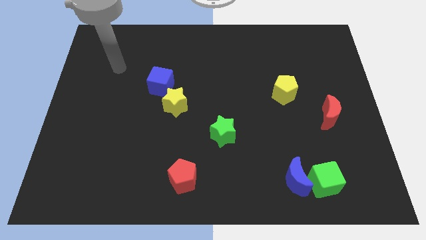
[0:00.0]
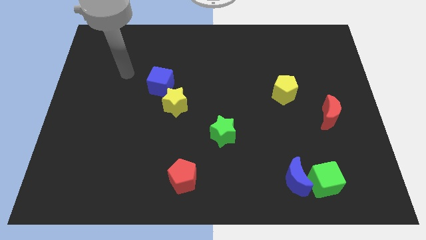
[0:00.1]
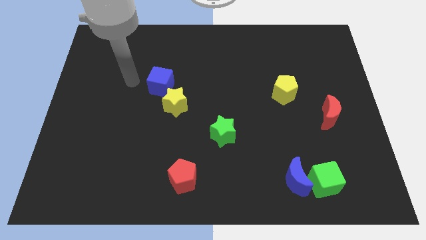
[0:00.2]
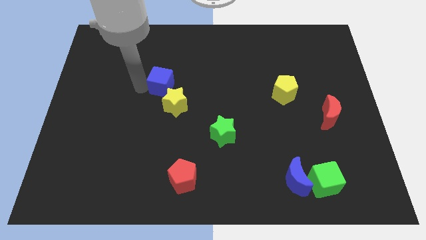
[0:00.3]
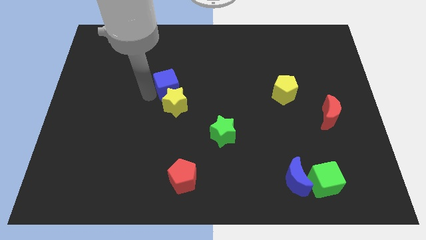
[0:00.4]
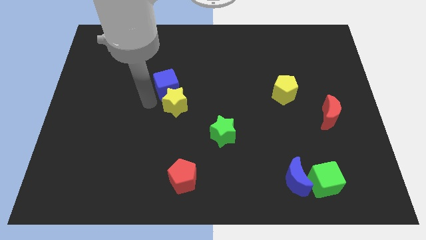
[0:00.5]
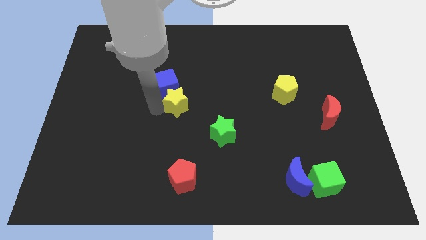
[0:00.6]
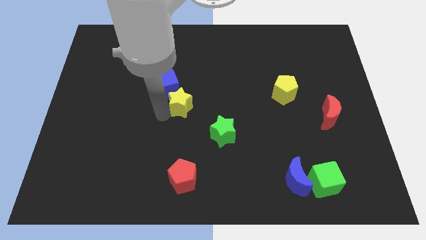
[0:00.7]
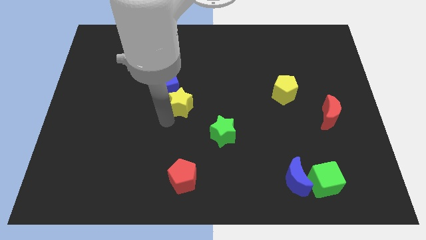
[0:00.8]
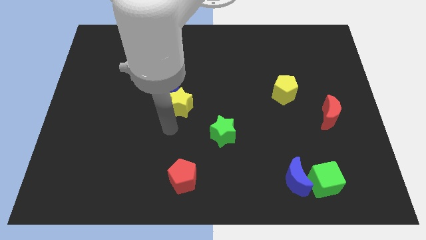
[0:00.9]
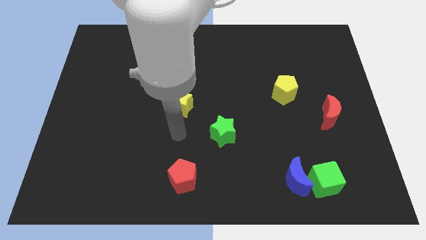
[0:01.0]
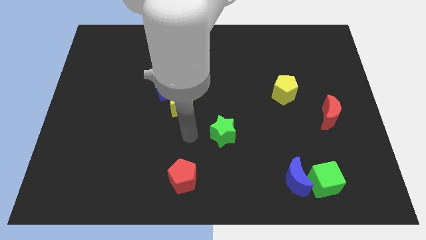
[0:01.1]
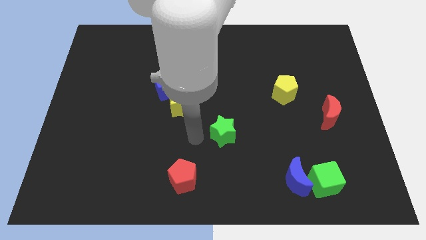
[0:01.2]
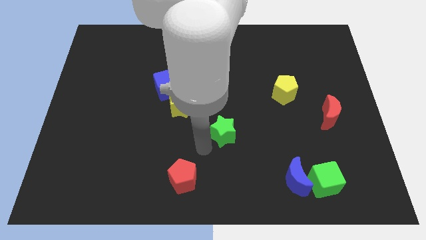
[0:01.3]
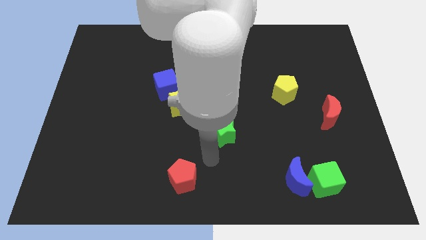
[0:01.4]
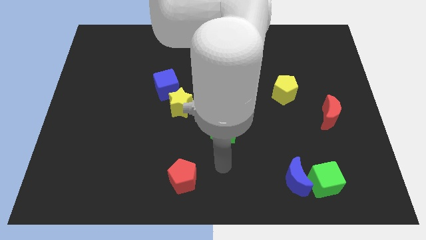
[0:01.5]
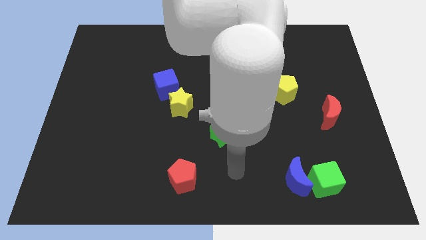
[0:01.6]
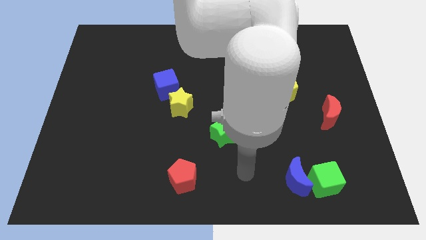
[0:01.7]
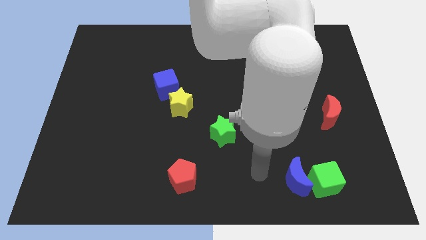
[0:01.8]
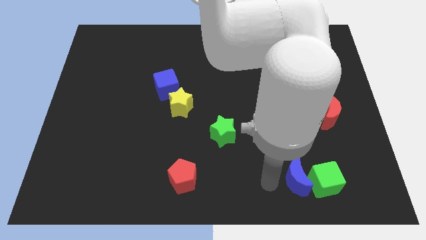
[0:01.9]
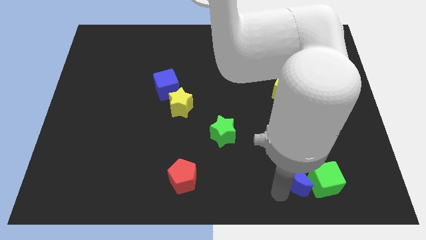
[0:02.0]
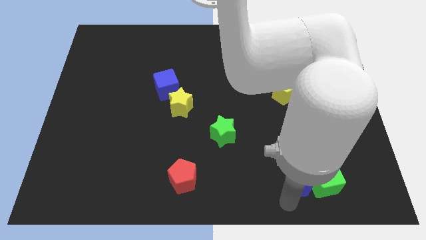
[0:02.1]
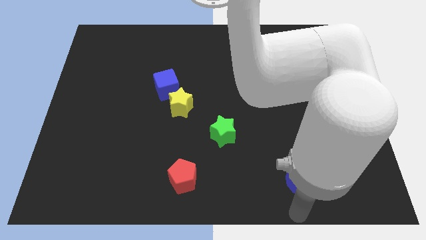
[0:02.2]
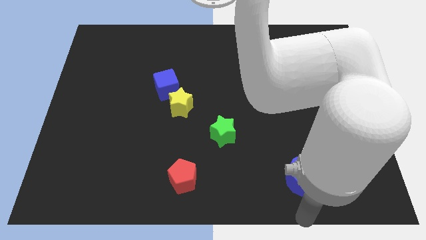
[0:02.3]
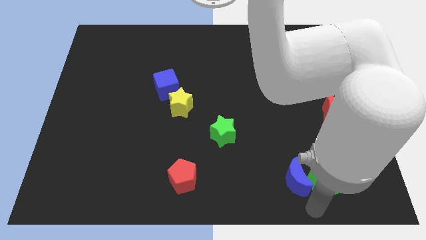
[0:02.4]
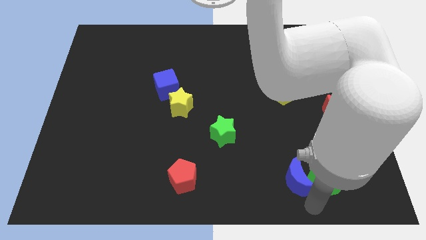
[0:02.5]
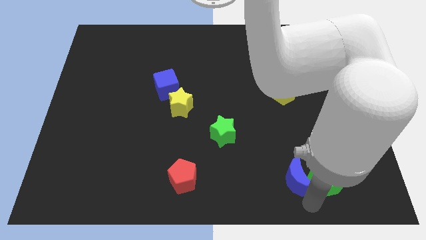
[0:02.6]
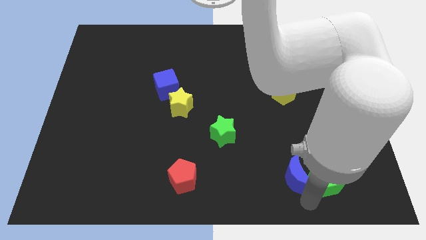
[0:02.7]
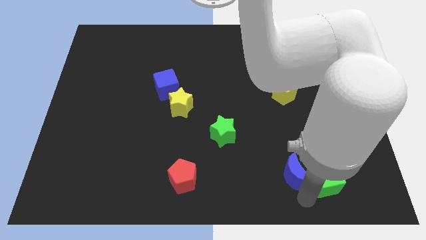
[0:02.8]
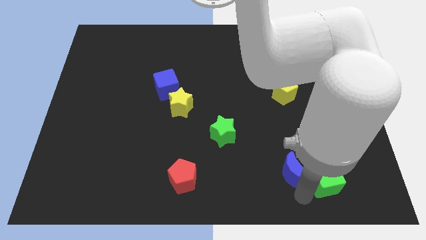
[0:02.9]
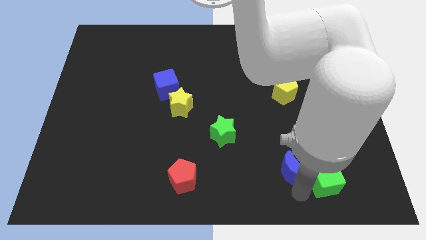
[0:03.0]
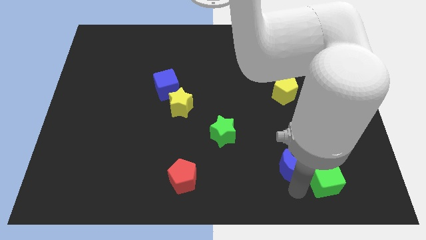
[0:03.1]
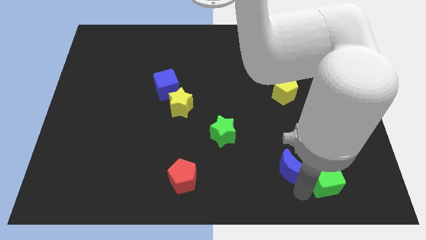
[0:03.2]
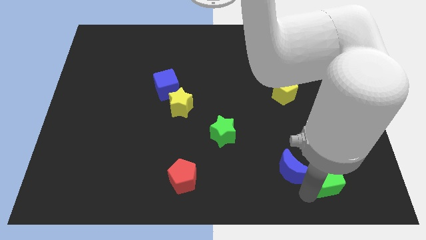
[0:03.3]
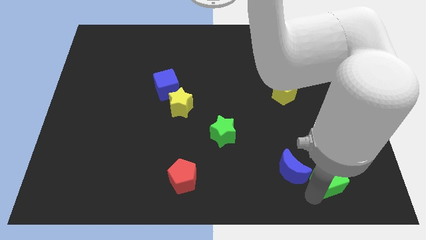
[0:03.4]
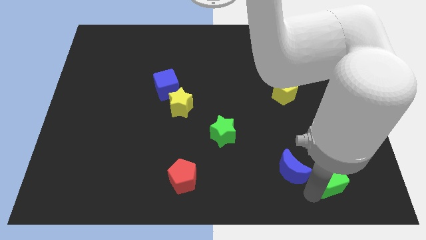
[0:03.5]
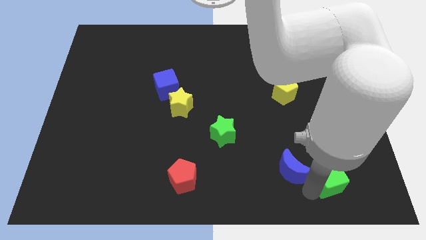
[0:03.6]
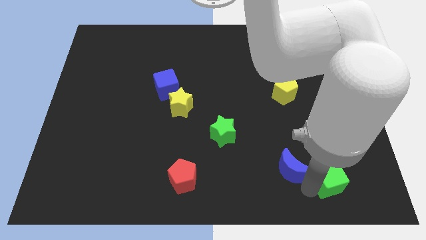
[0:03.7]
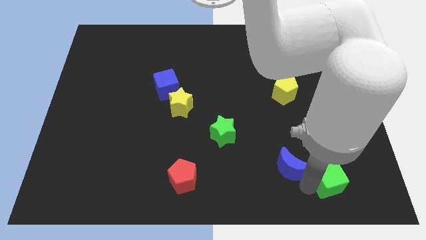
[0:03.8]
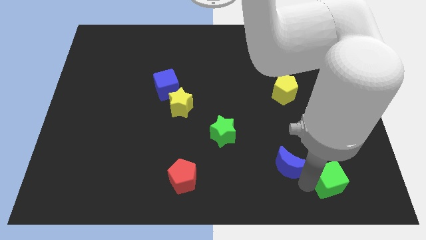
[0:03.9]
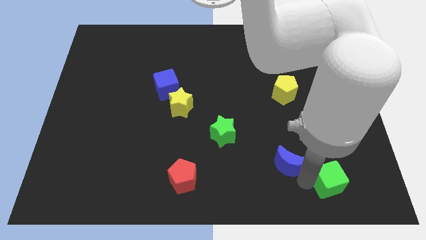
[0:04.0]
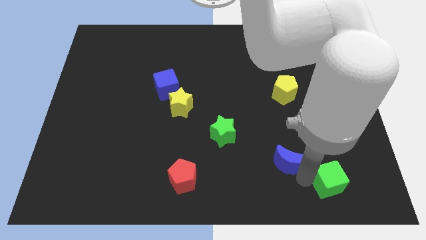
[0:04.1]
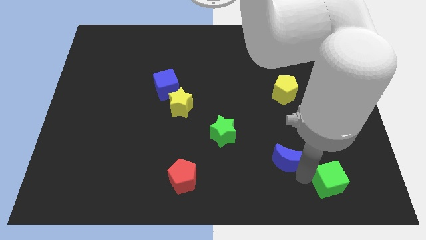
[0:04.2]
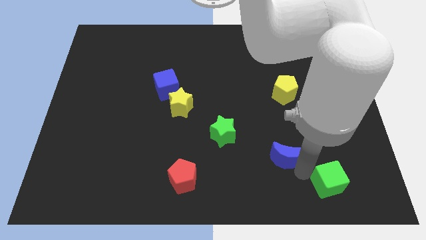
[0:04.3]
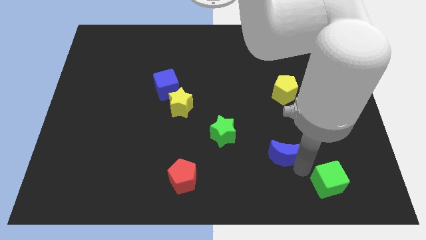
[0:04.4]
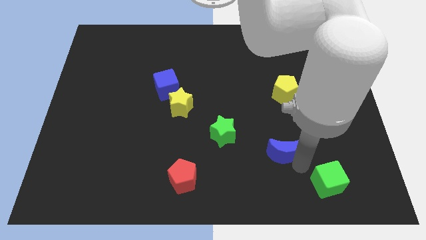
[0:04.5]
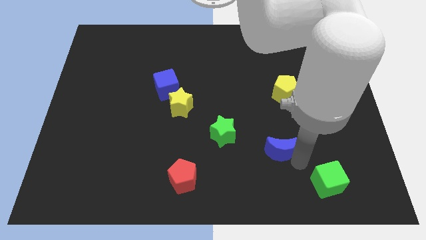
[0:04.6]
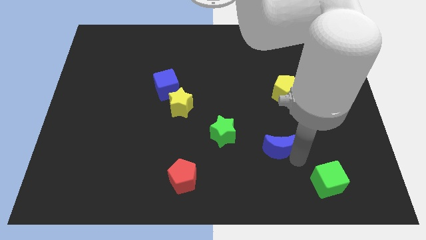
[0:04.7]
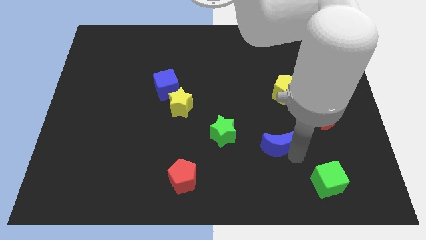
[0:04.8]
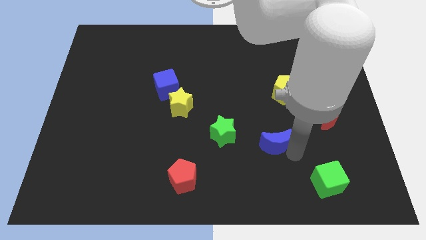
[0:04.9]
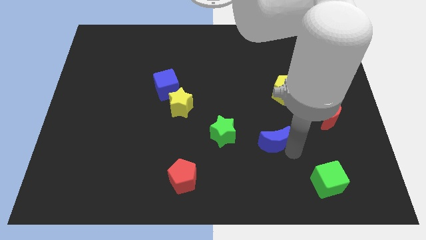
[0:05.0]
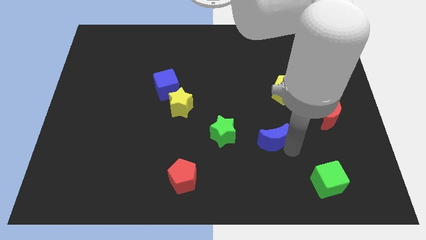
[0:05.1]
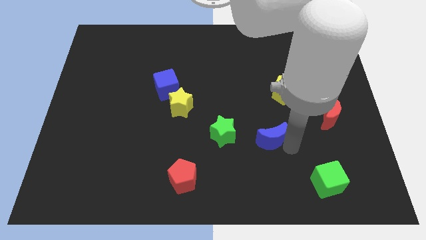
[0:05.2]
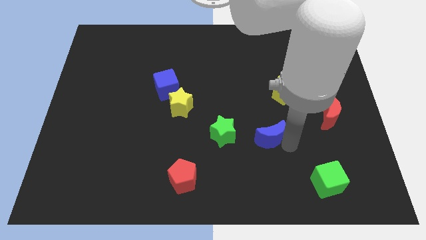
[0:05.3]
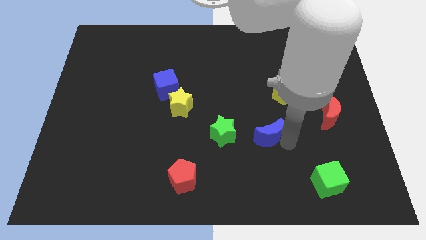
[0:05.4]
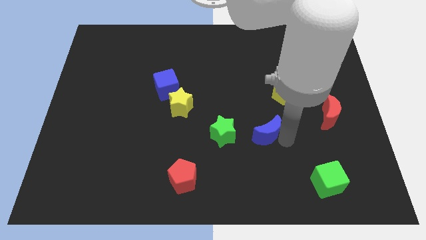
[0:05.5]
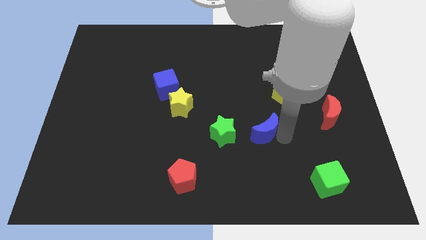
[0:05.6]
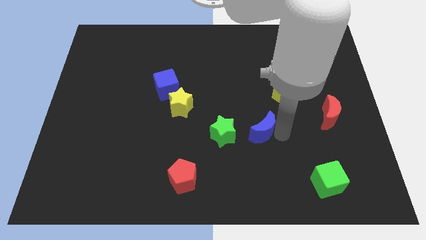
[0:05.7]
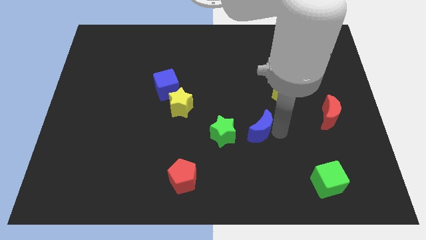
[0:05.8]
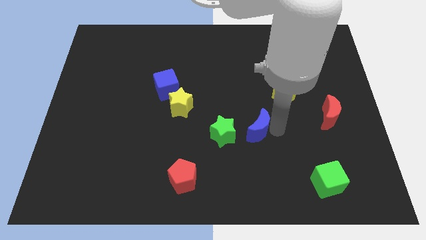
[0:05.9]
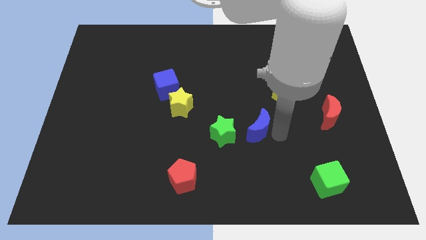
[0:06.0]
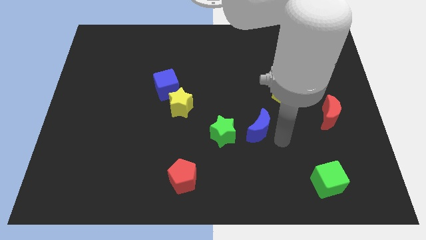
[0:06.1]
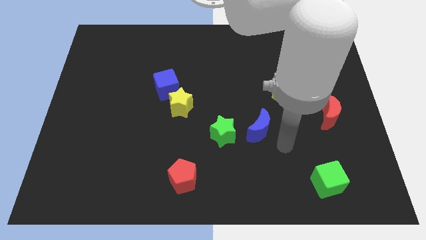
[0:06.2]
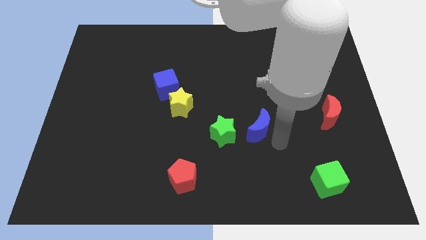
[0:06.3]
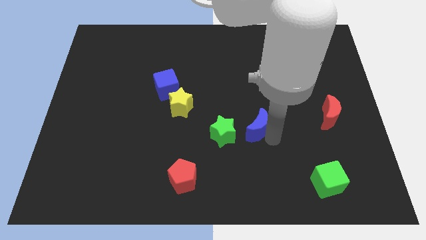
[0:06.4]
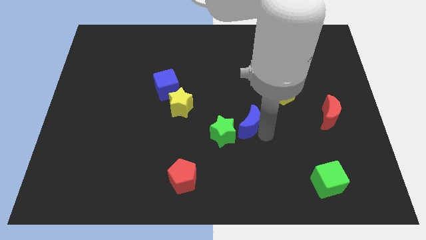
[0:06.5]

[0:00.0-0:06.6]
slide the blue moon to the middle
